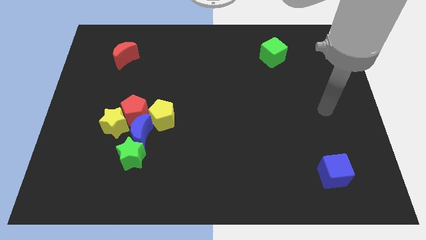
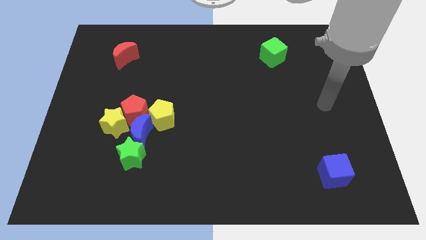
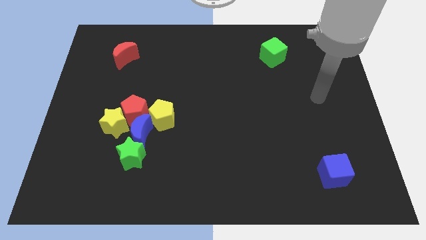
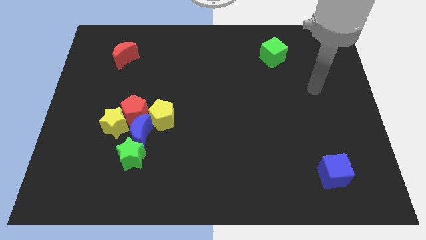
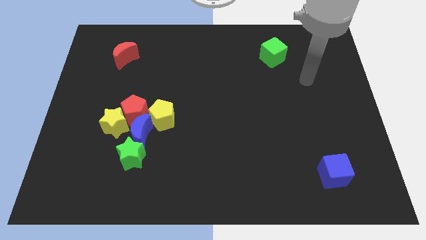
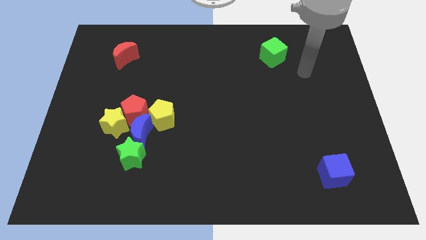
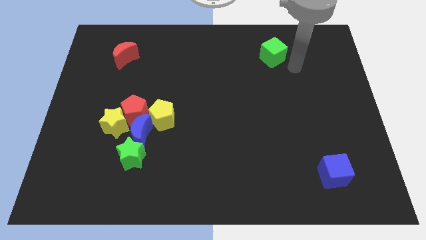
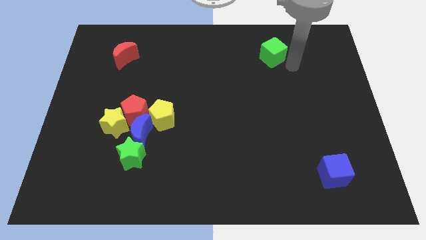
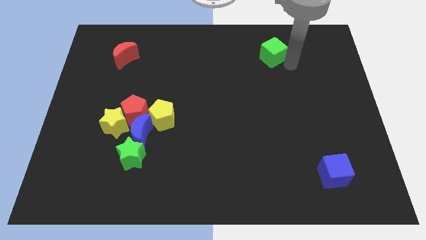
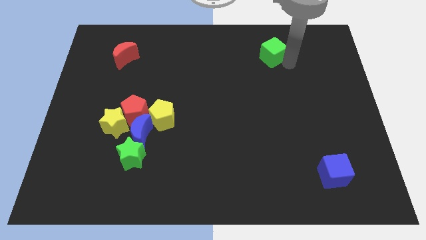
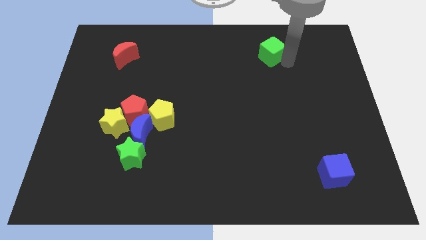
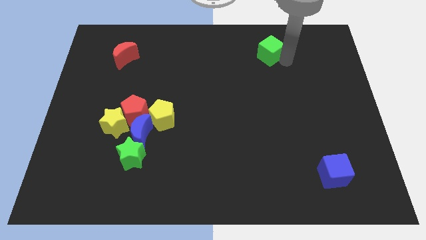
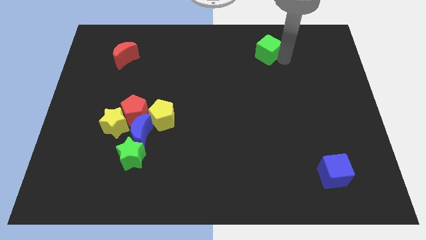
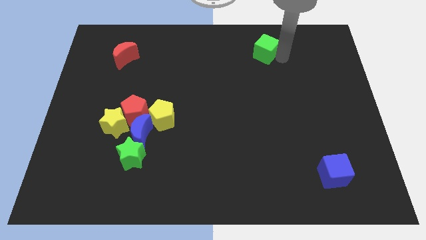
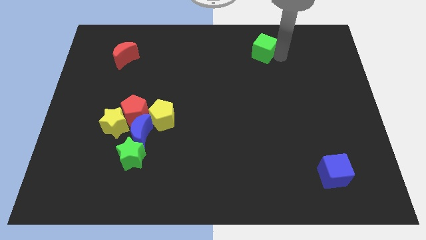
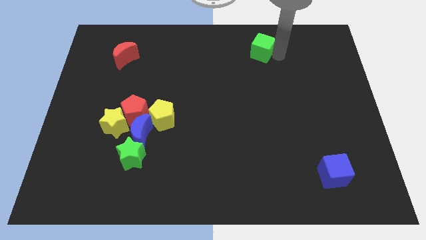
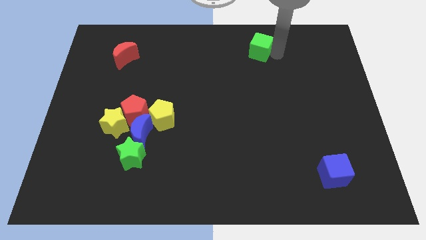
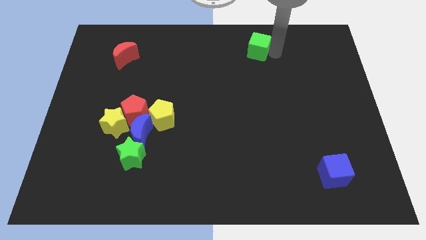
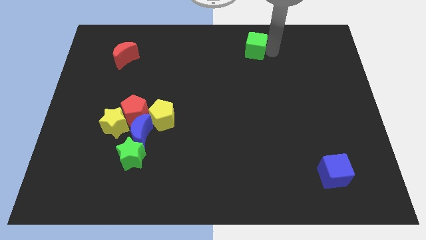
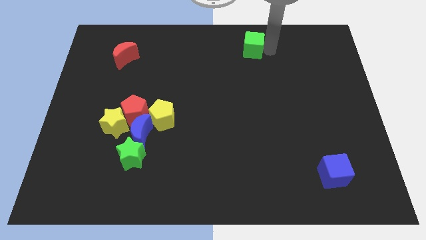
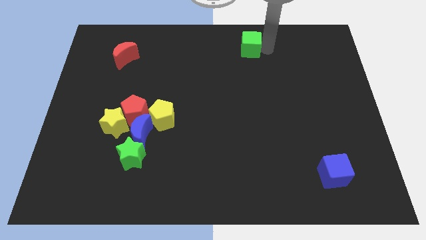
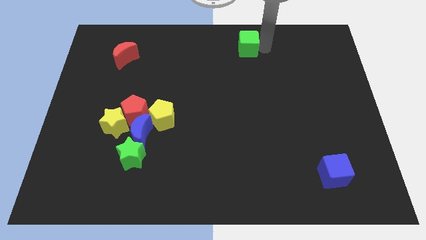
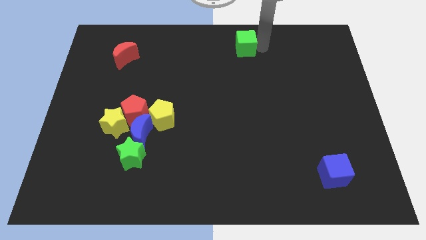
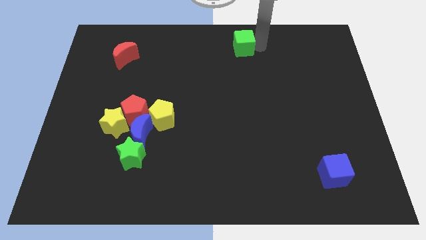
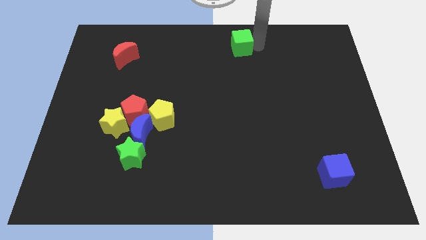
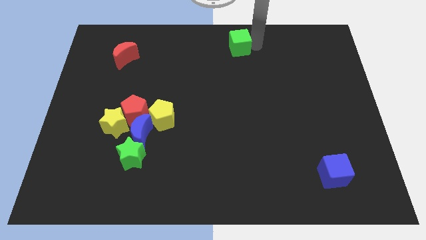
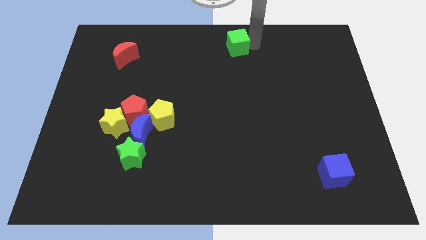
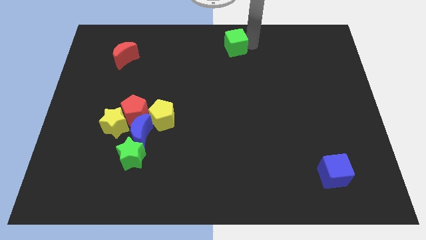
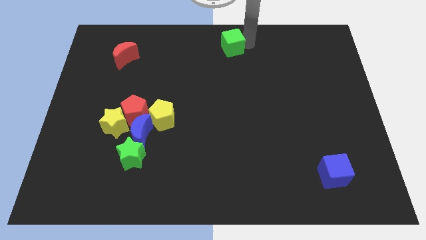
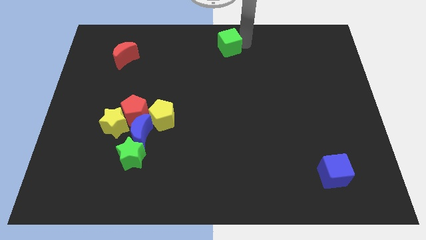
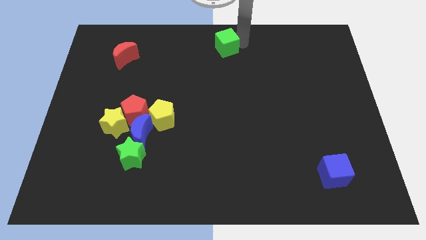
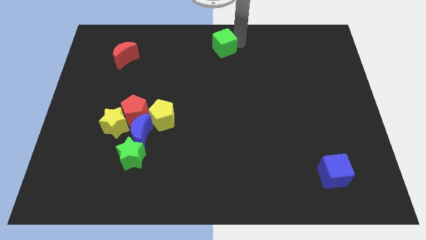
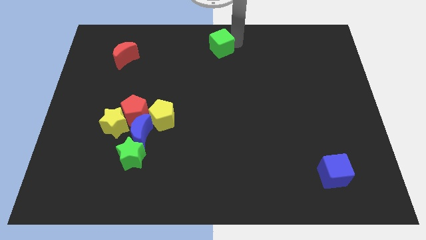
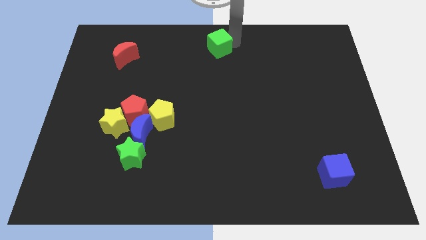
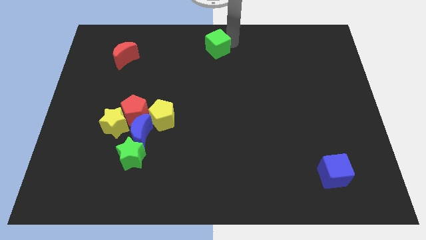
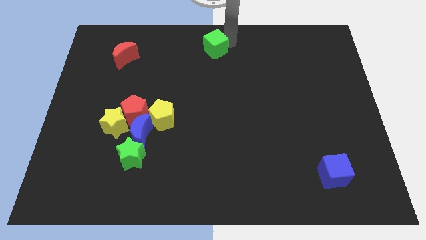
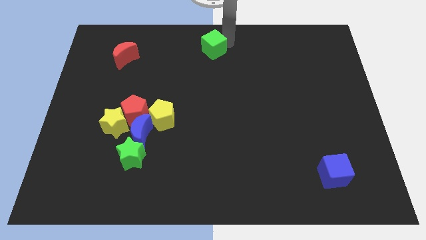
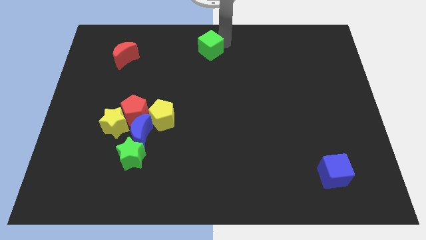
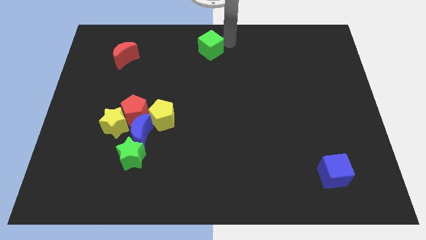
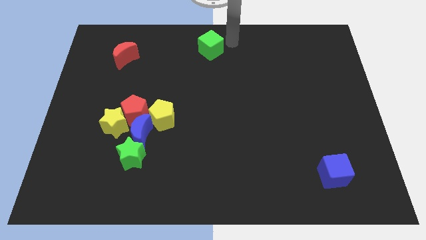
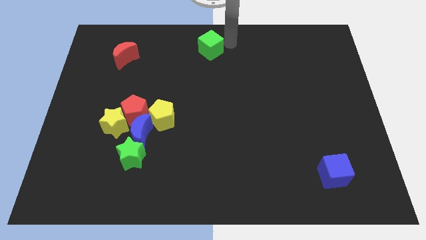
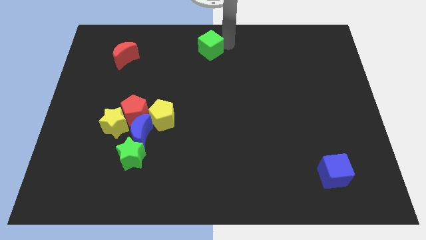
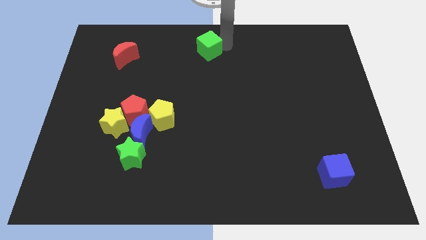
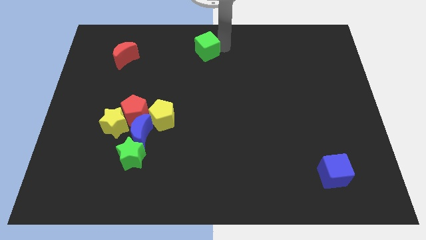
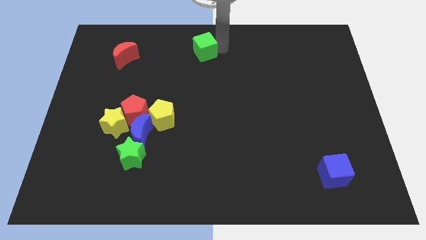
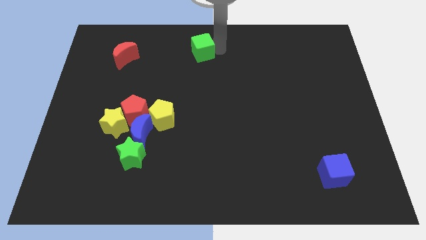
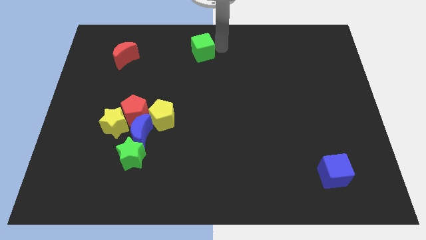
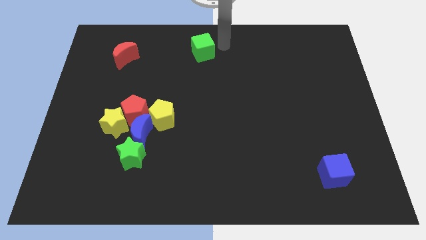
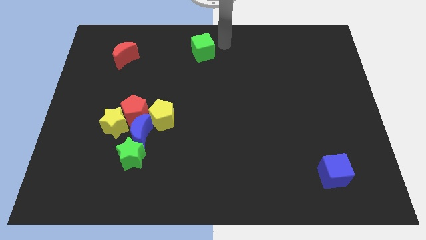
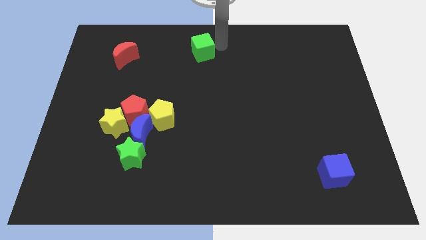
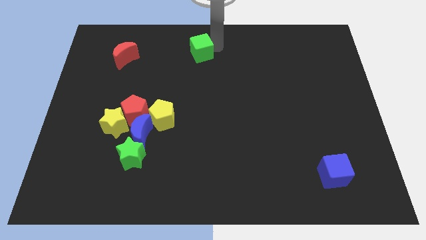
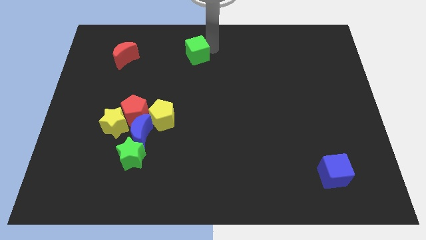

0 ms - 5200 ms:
move the green cube to the left

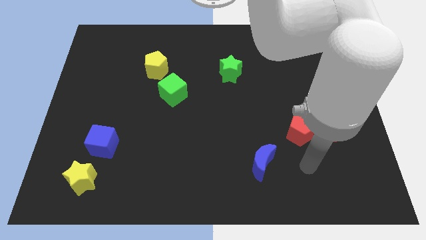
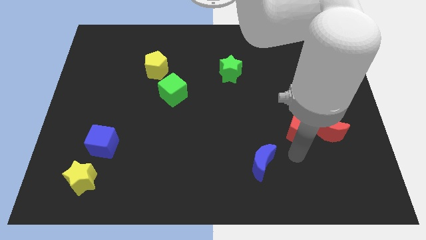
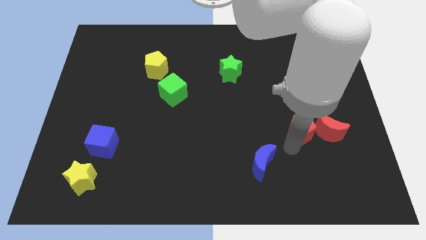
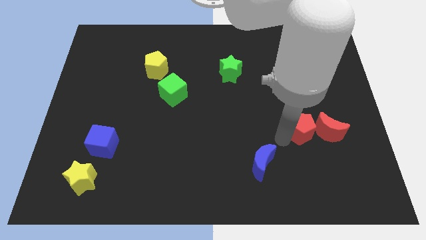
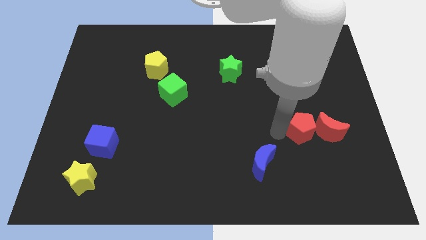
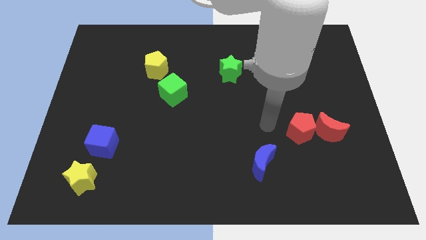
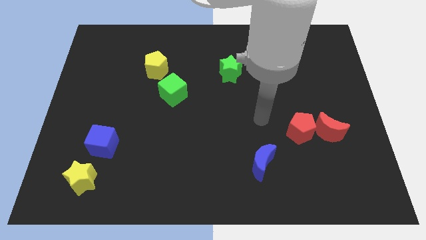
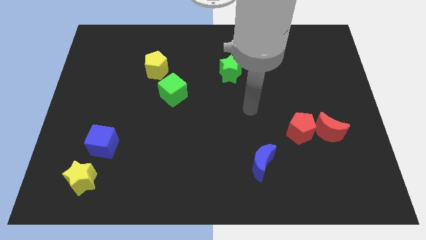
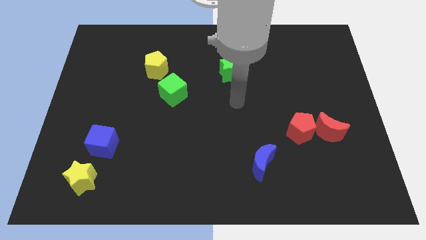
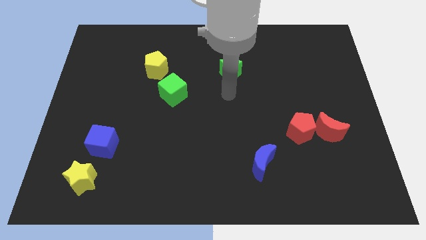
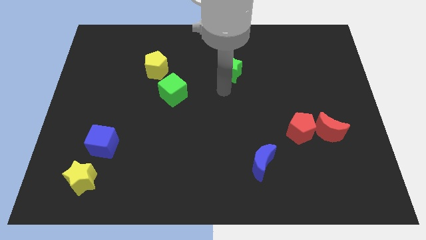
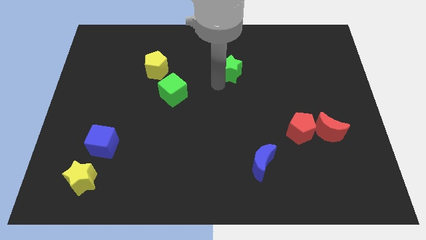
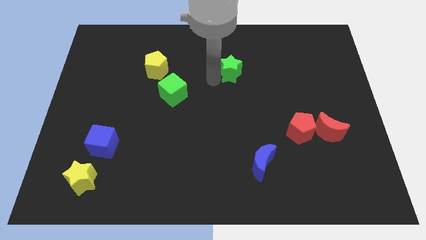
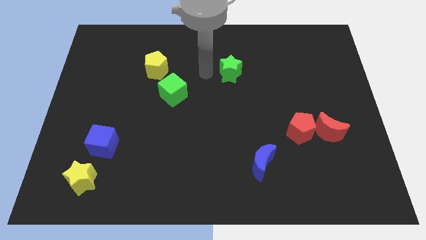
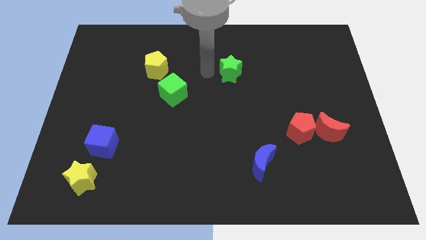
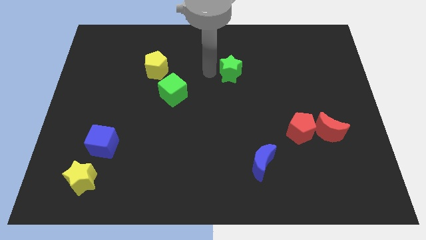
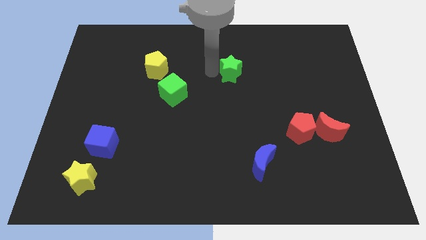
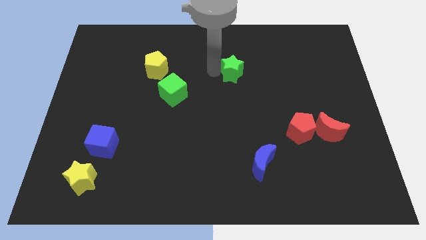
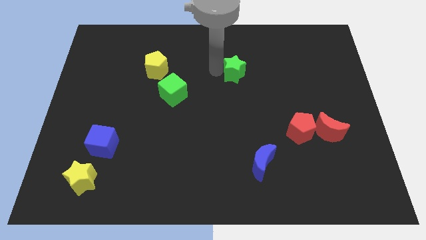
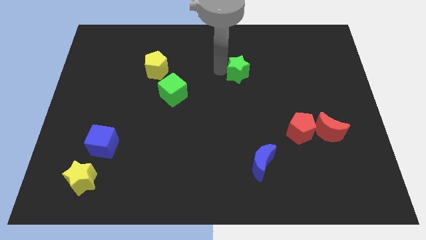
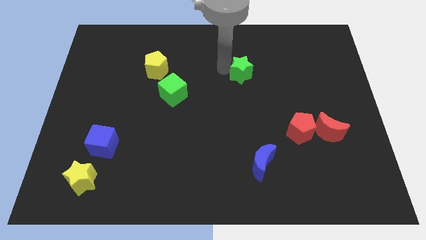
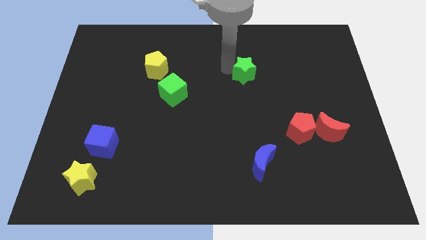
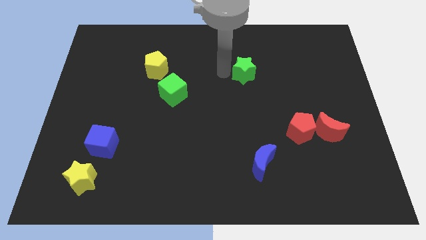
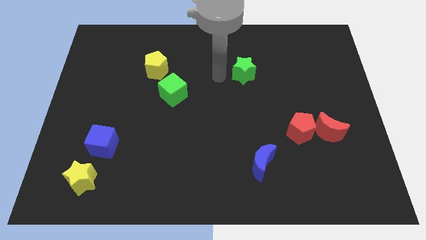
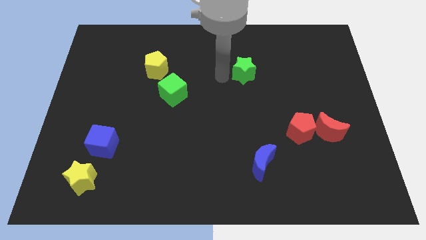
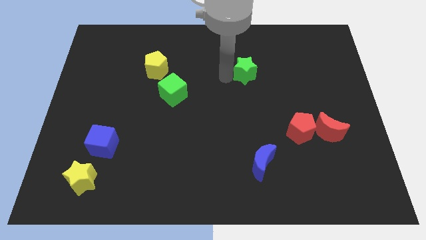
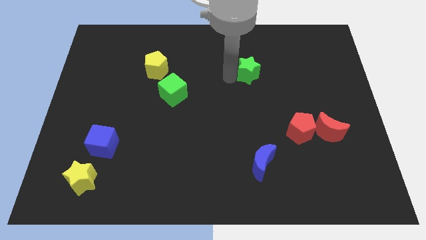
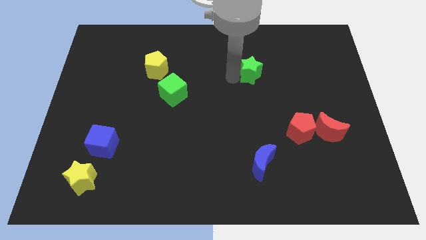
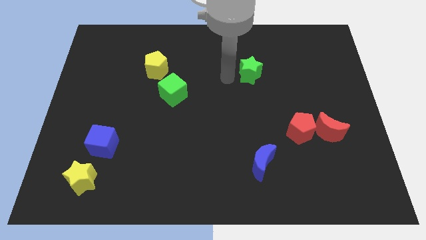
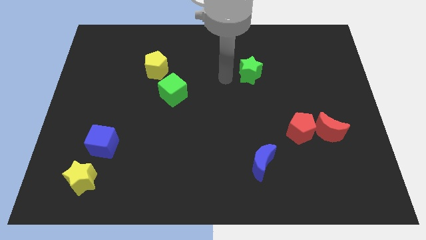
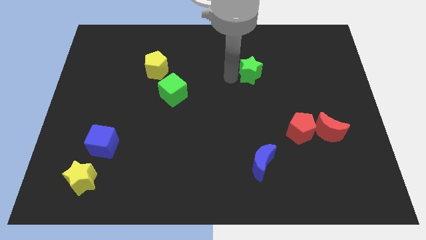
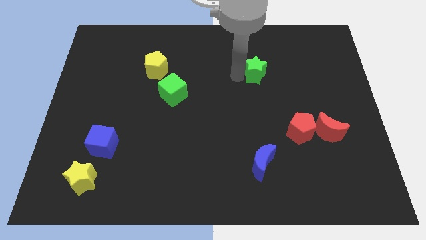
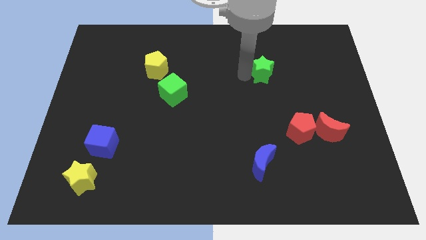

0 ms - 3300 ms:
push the green star a bit right
